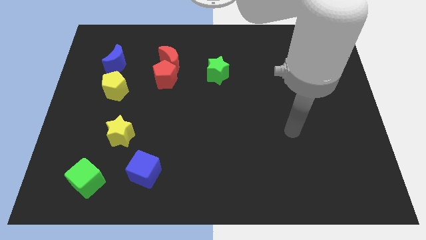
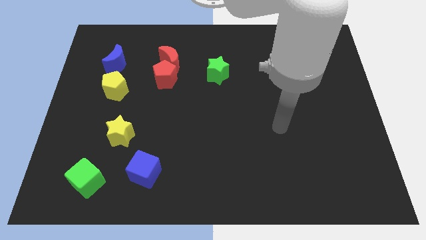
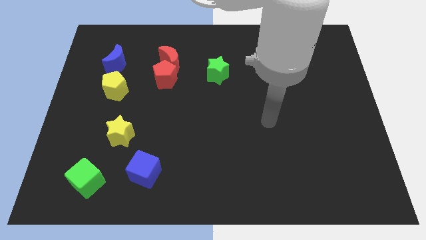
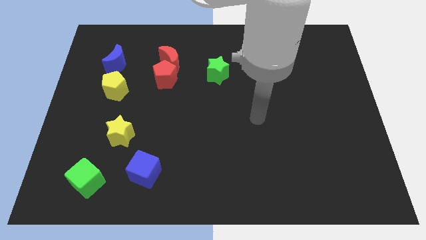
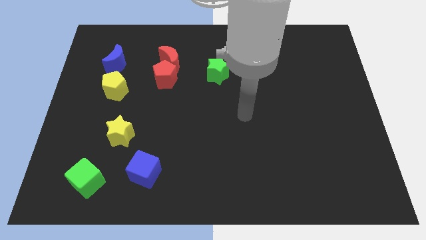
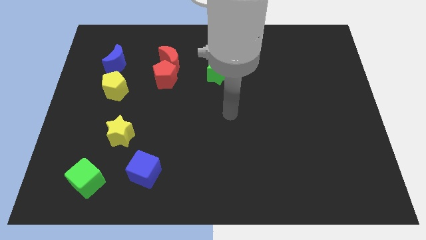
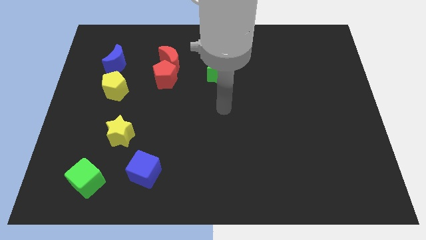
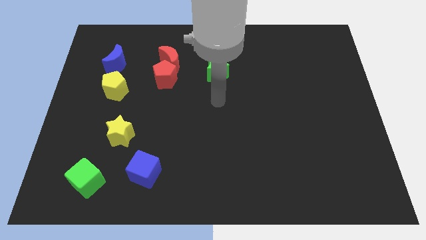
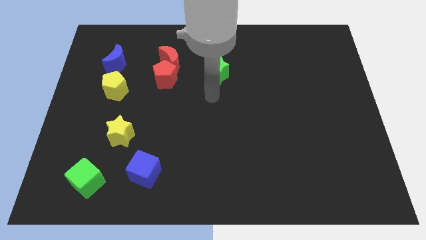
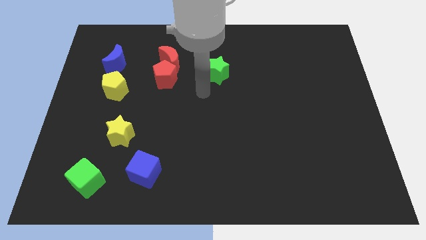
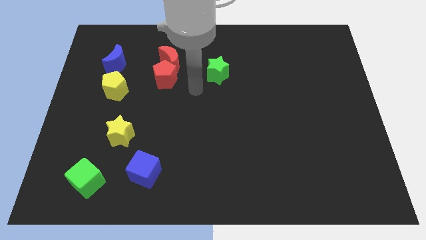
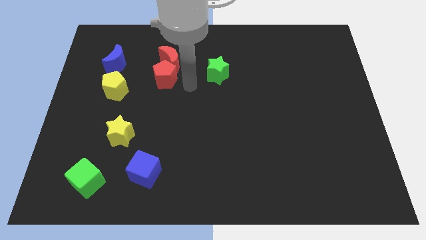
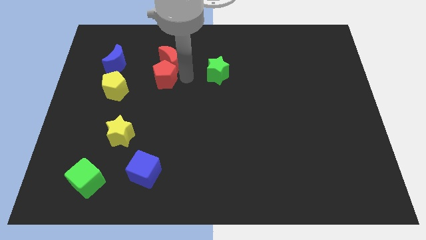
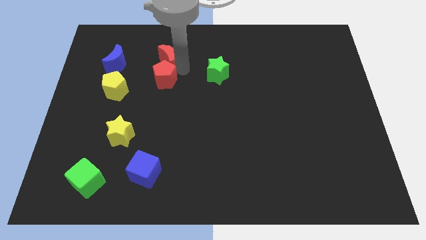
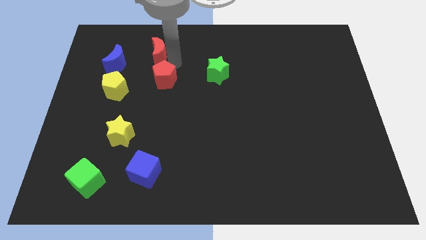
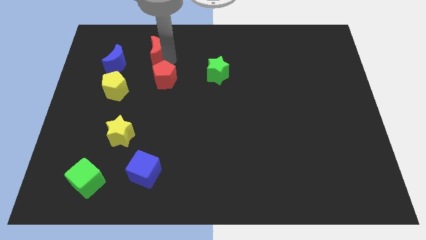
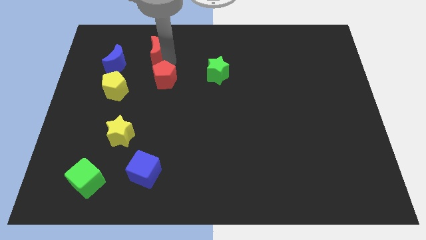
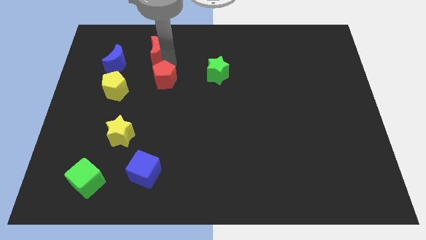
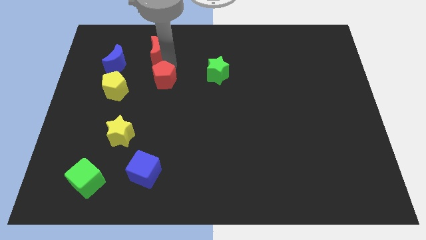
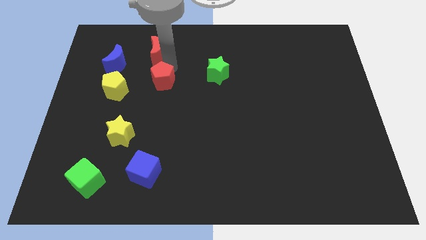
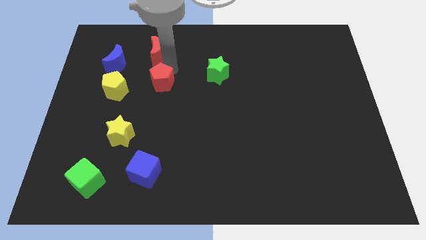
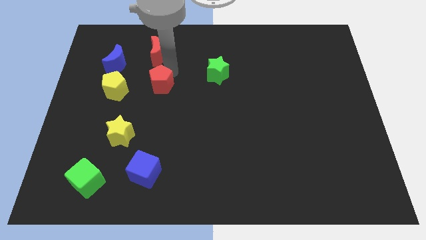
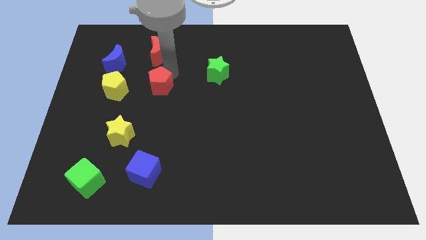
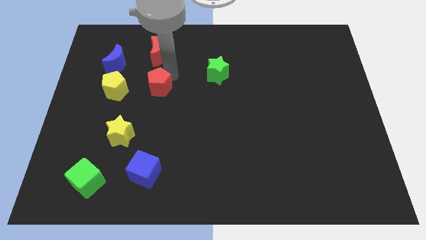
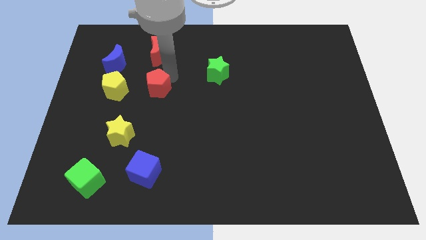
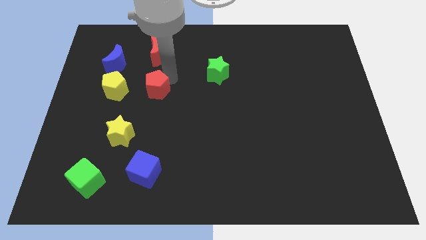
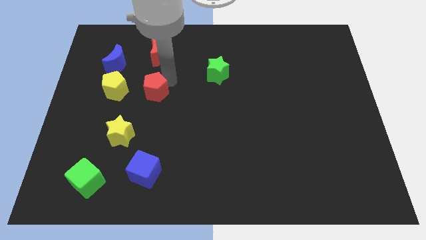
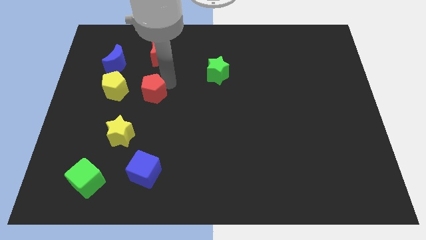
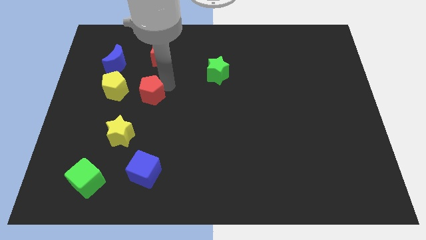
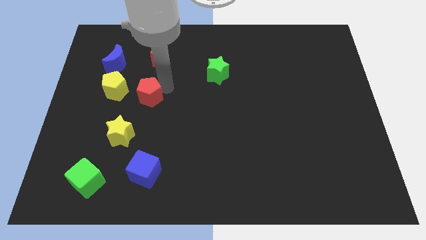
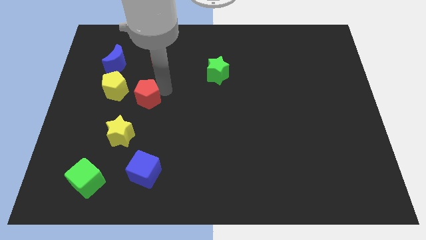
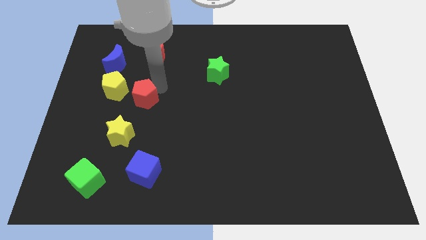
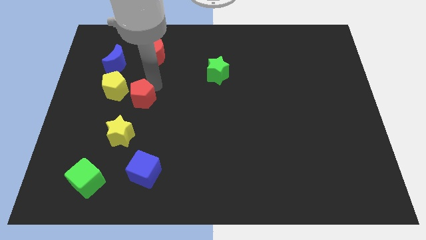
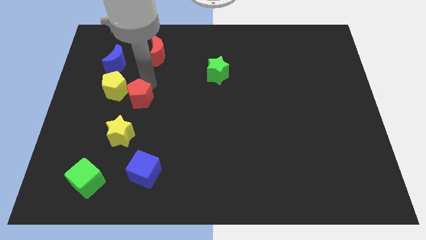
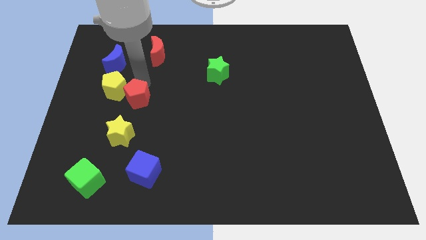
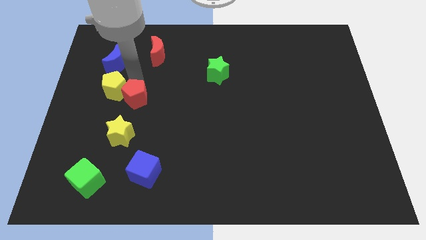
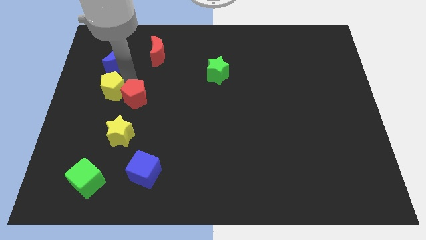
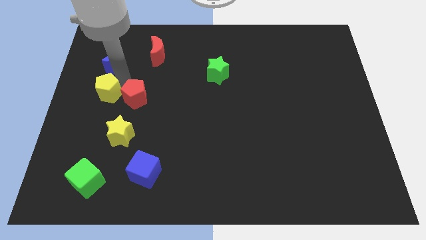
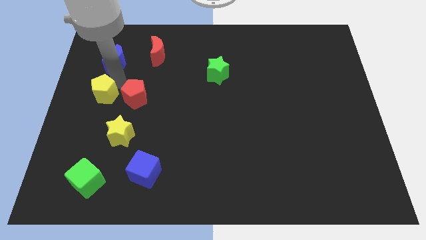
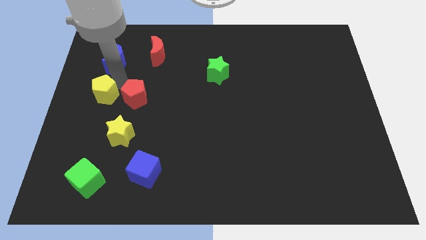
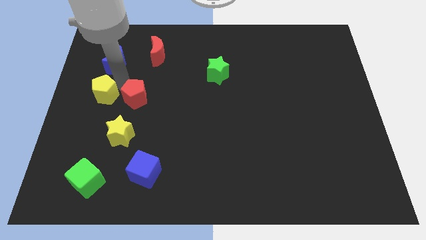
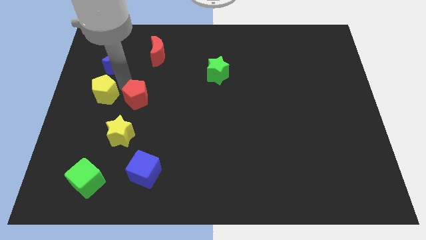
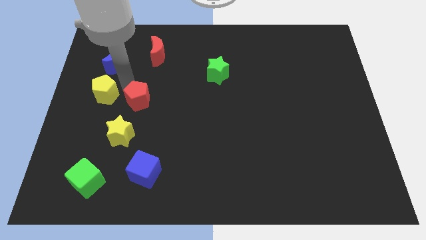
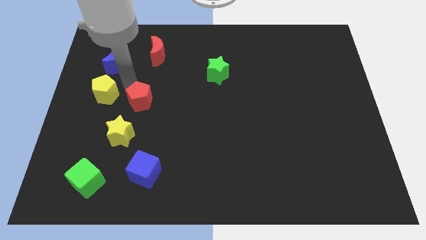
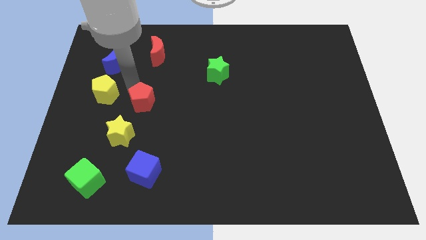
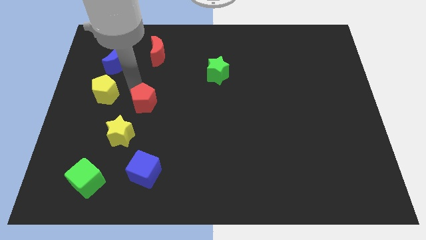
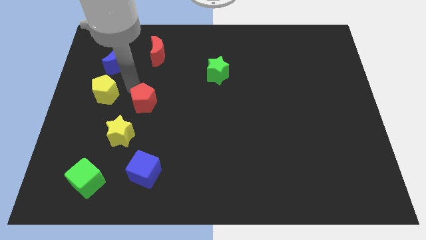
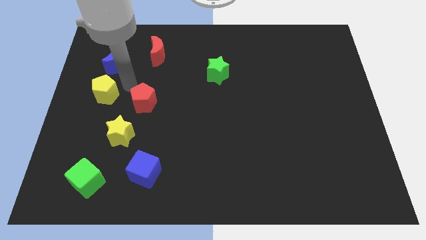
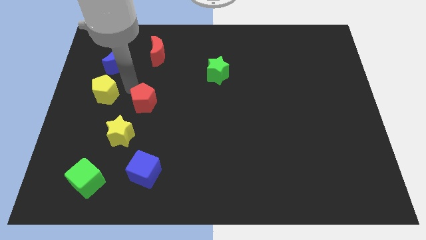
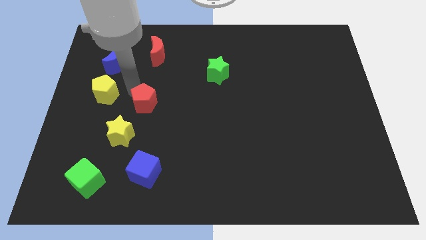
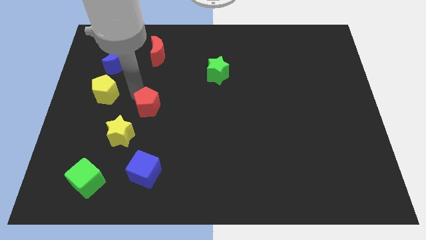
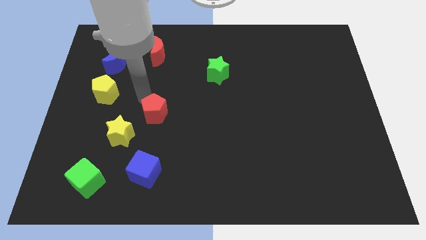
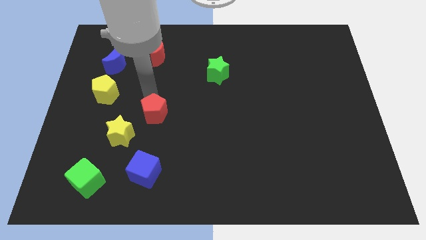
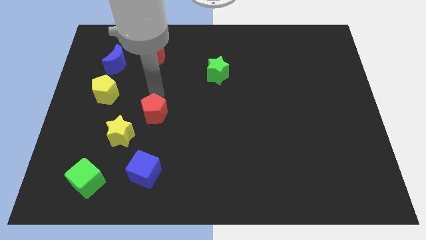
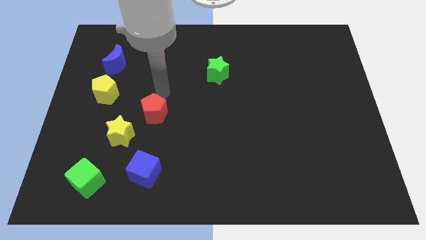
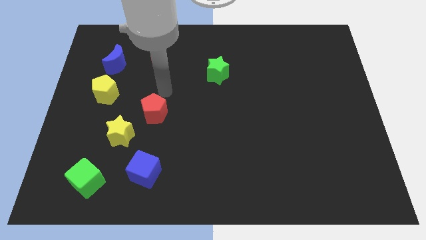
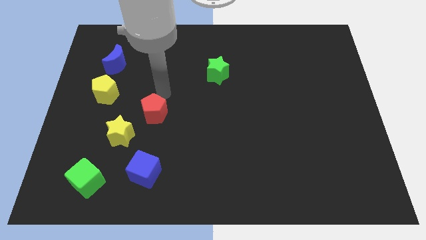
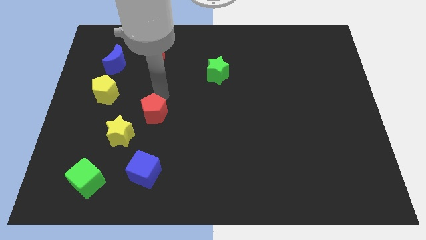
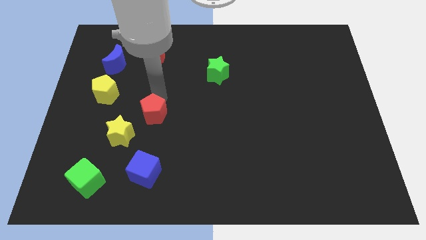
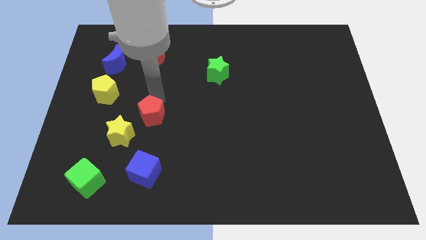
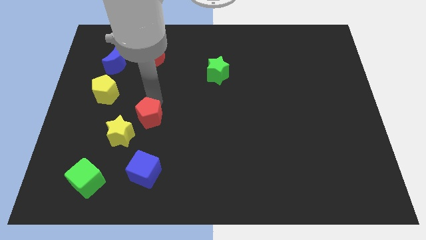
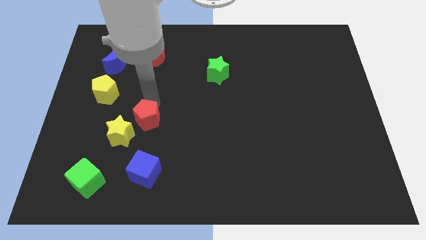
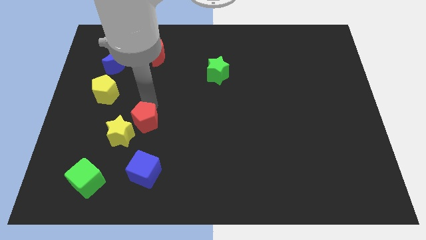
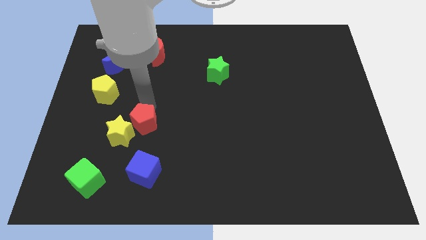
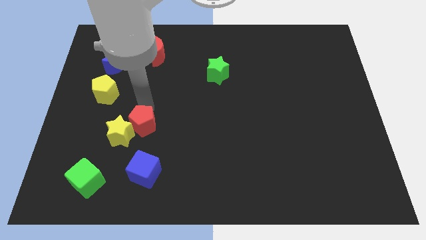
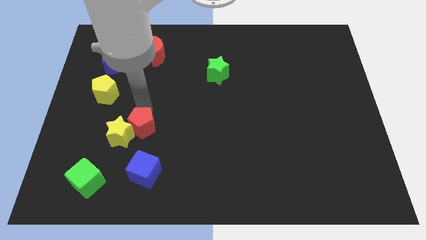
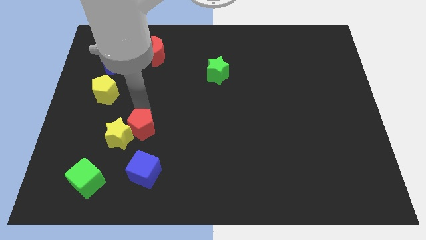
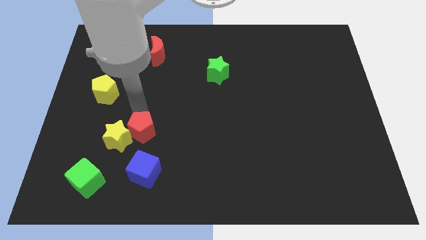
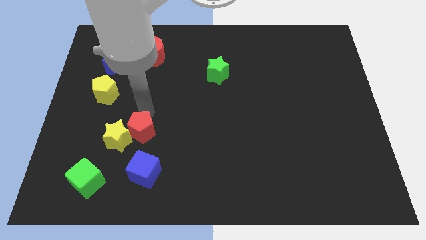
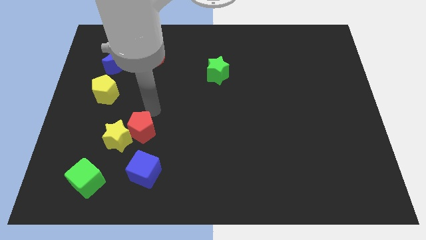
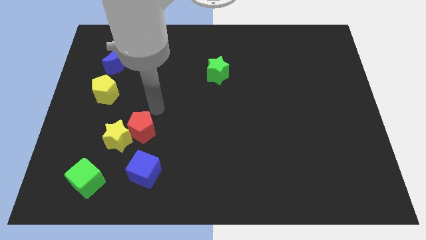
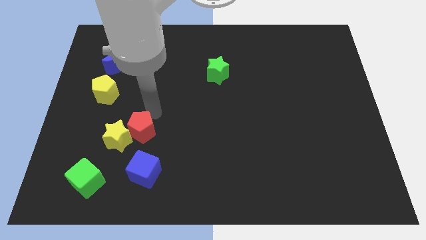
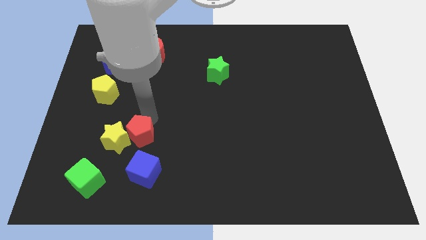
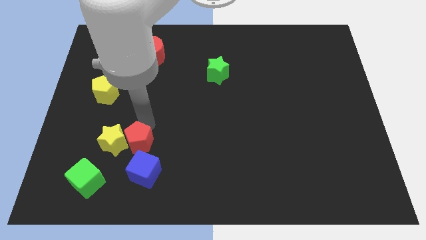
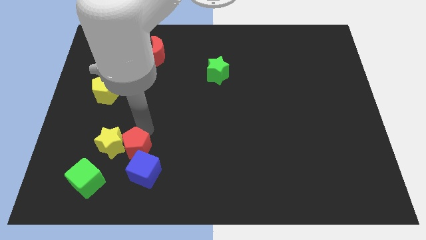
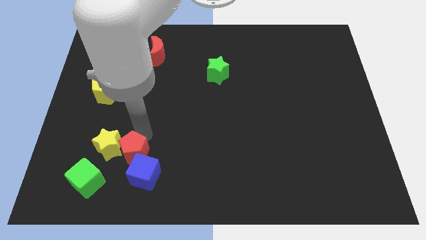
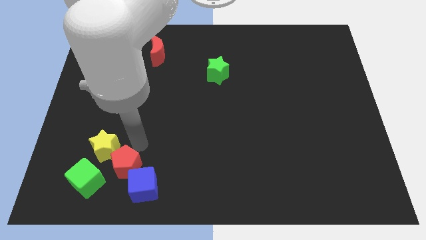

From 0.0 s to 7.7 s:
put the red pentagon to the bottom of the yellow star
